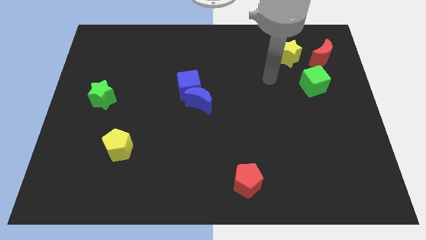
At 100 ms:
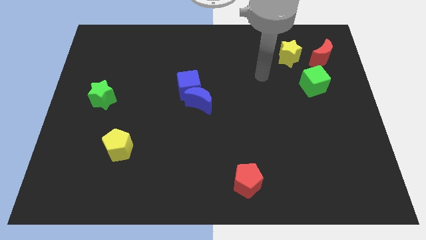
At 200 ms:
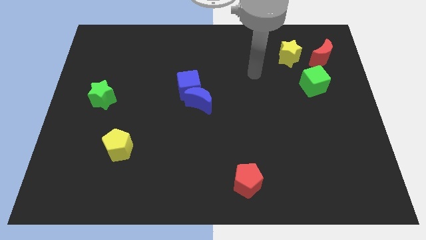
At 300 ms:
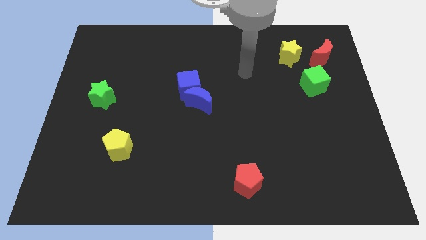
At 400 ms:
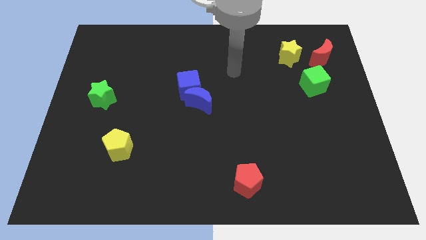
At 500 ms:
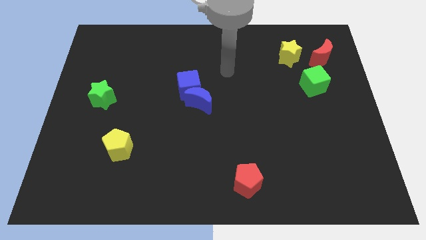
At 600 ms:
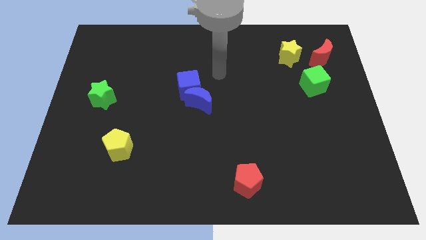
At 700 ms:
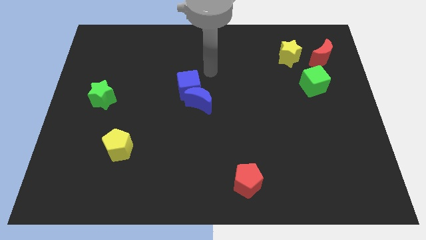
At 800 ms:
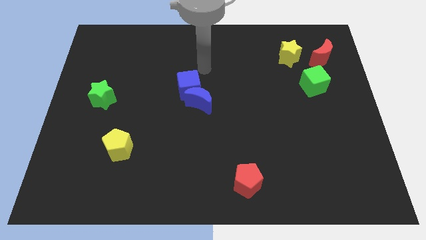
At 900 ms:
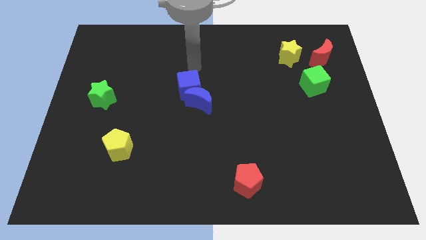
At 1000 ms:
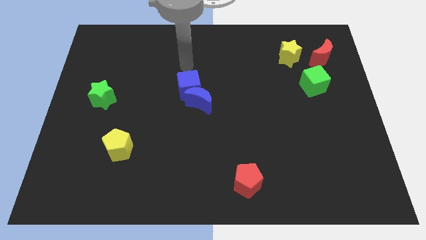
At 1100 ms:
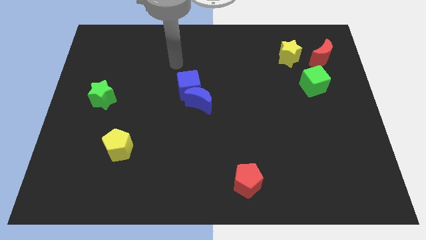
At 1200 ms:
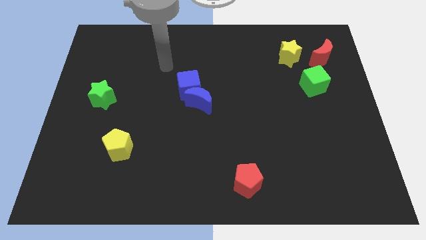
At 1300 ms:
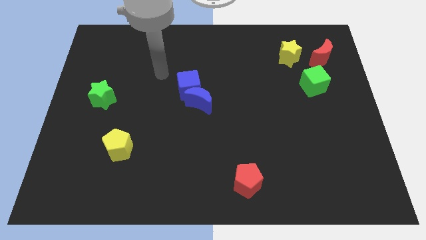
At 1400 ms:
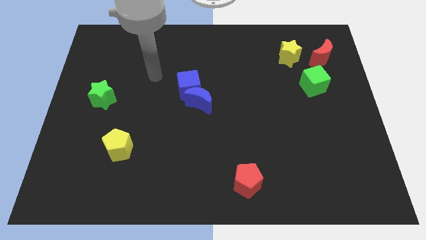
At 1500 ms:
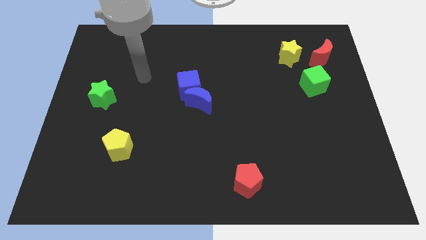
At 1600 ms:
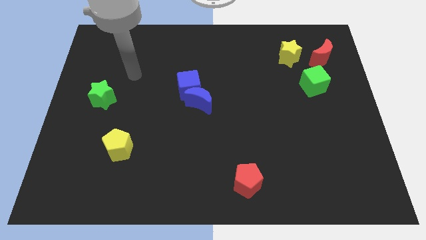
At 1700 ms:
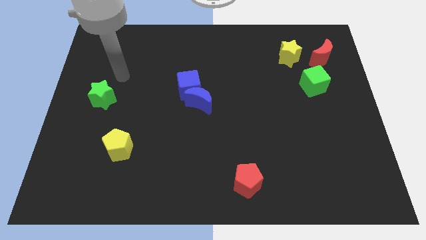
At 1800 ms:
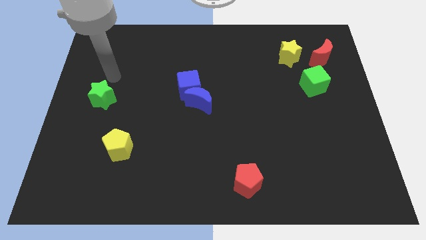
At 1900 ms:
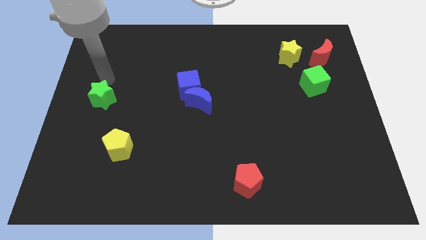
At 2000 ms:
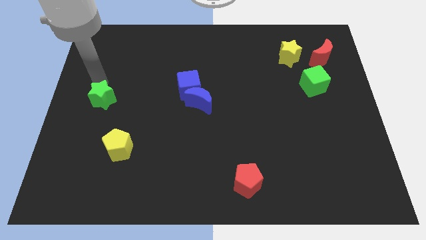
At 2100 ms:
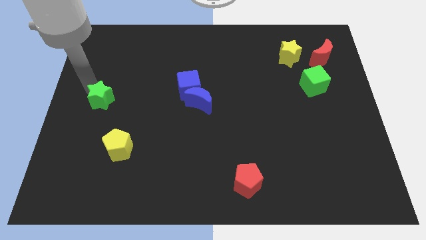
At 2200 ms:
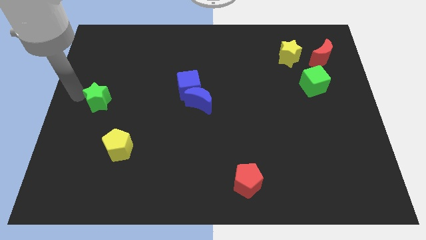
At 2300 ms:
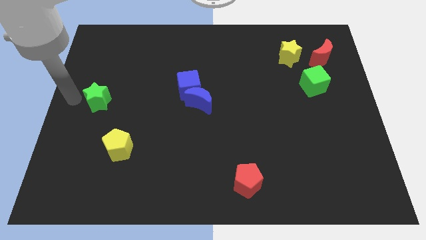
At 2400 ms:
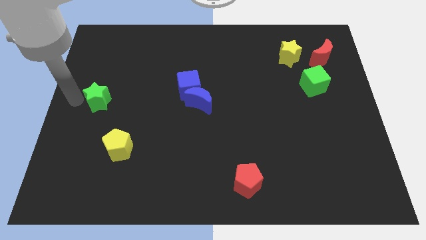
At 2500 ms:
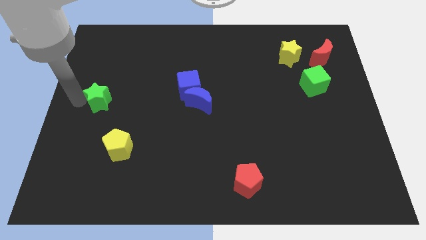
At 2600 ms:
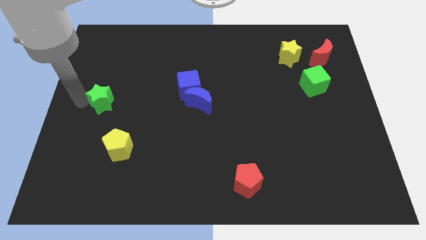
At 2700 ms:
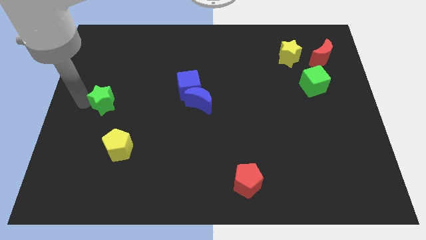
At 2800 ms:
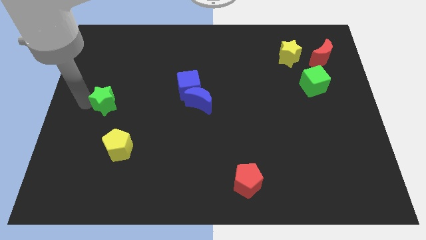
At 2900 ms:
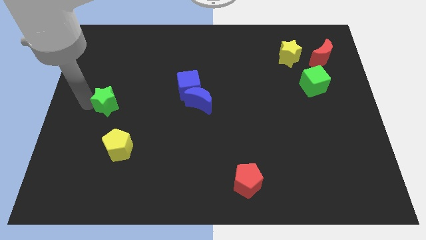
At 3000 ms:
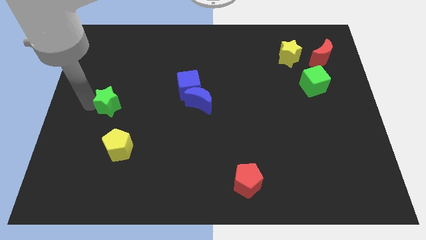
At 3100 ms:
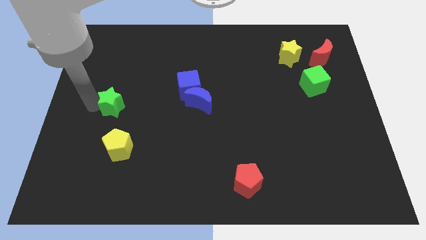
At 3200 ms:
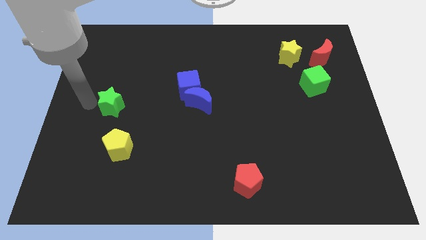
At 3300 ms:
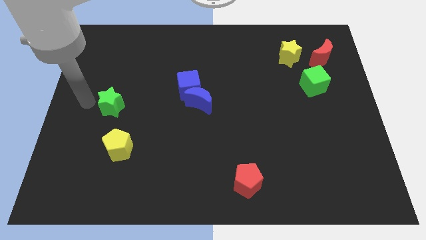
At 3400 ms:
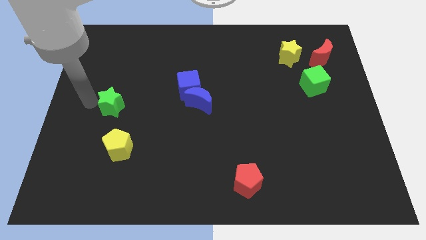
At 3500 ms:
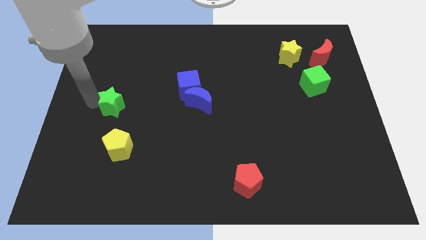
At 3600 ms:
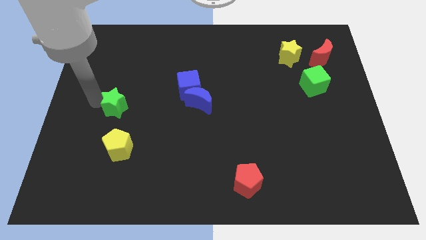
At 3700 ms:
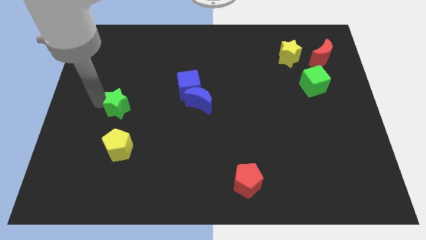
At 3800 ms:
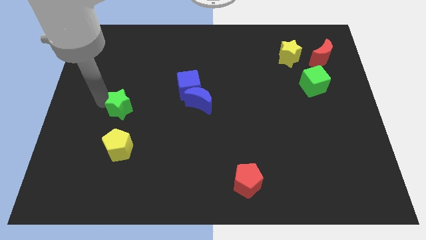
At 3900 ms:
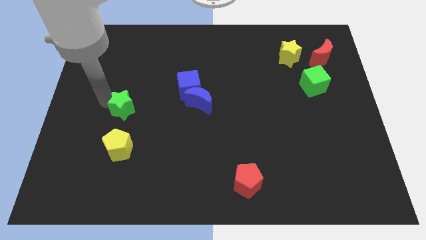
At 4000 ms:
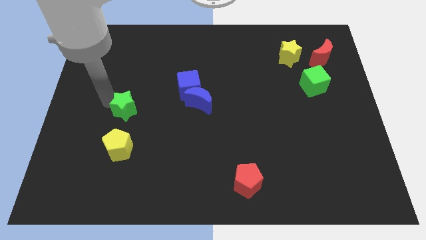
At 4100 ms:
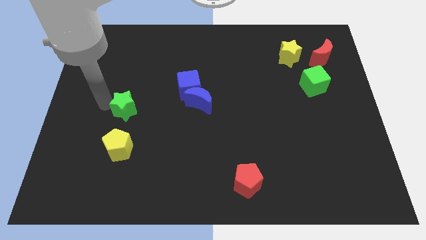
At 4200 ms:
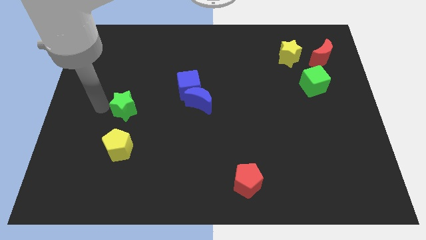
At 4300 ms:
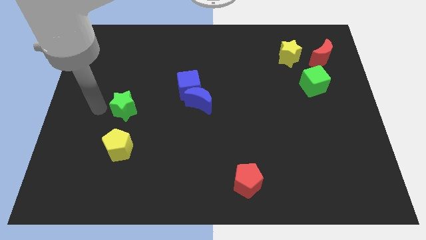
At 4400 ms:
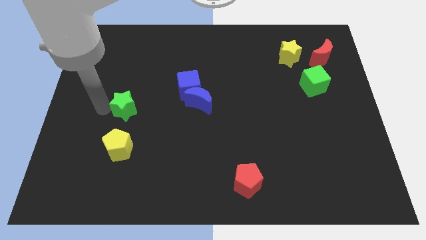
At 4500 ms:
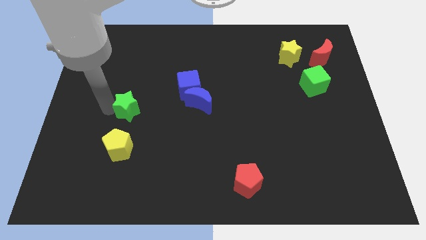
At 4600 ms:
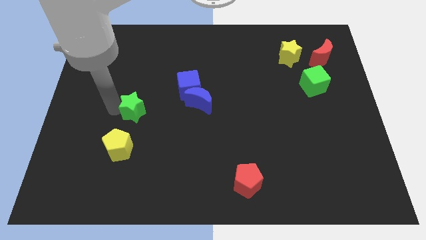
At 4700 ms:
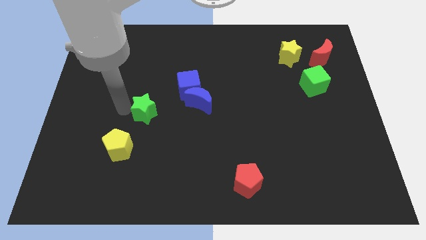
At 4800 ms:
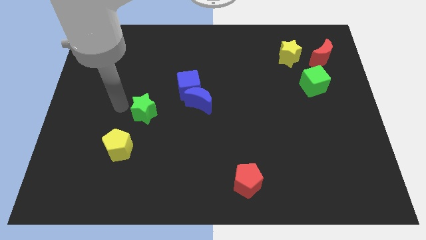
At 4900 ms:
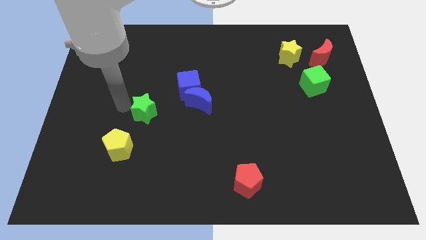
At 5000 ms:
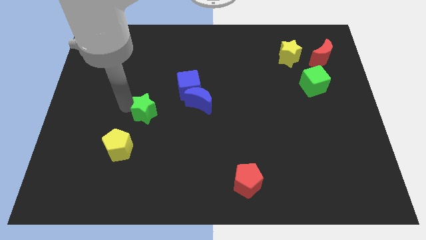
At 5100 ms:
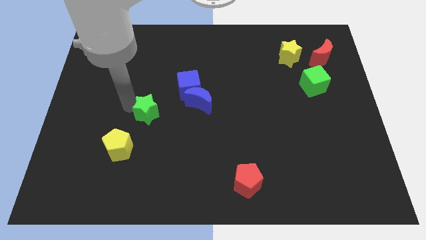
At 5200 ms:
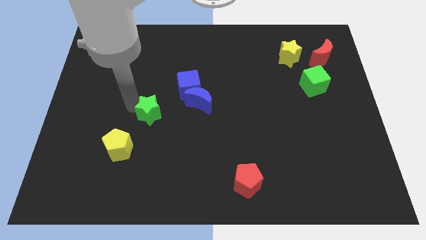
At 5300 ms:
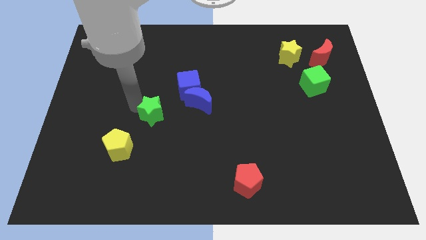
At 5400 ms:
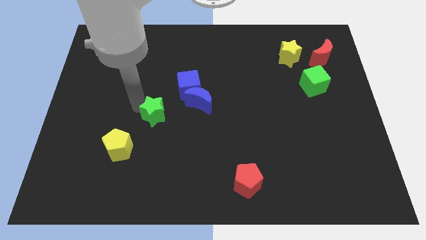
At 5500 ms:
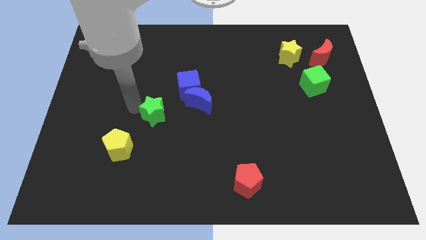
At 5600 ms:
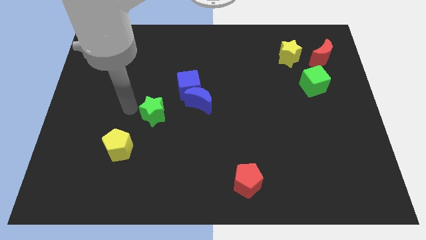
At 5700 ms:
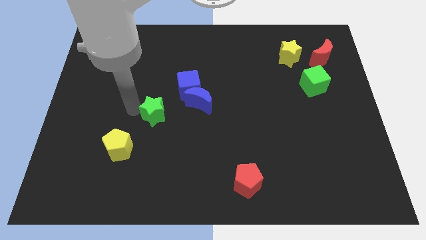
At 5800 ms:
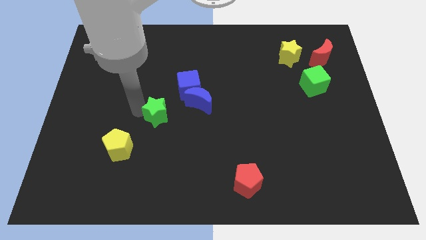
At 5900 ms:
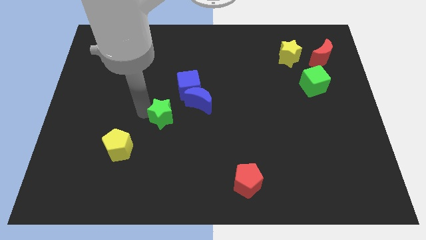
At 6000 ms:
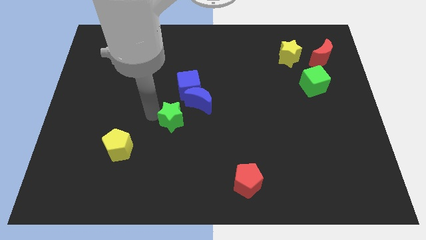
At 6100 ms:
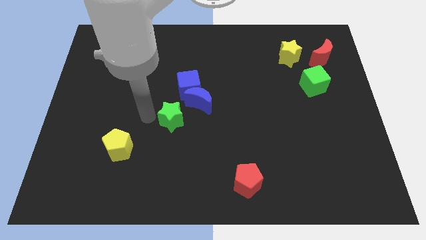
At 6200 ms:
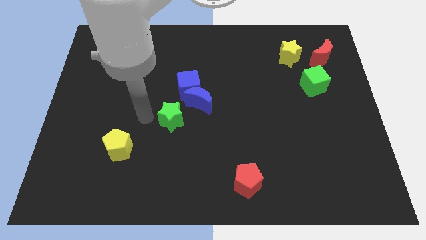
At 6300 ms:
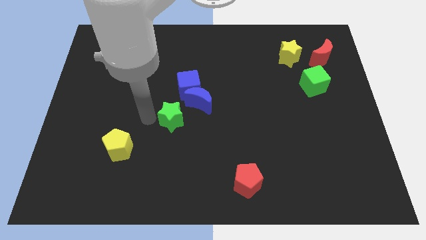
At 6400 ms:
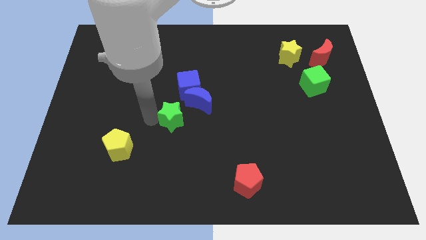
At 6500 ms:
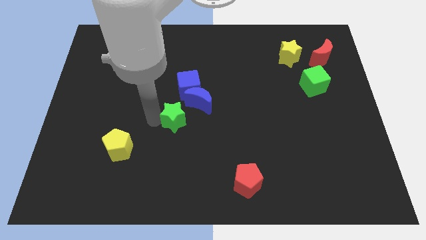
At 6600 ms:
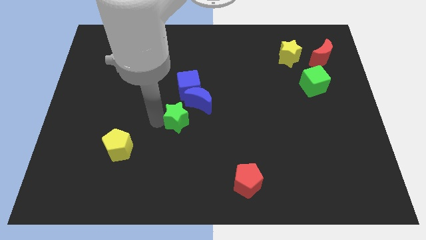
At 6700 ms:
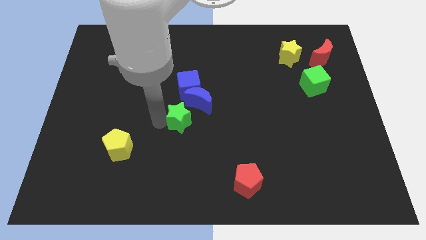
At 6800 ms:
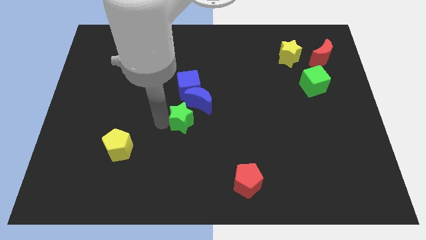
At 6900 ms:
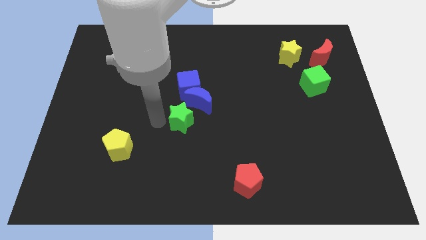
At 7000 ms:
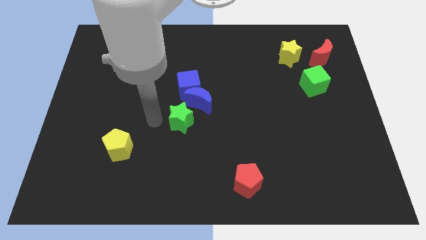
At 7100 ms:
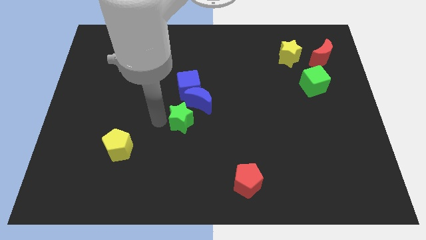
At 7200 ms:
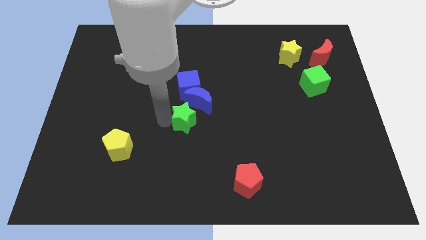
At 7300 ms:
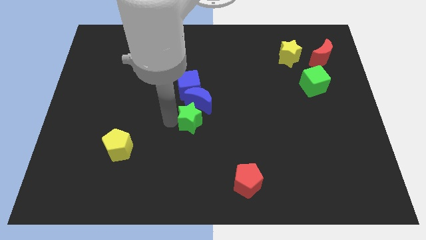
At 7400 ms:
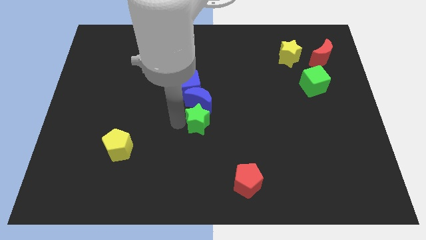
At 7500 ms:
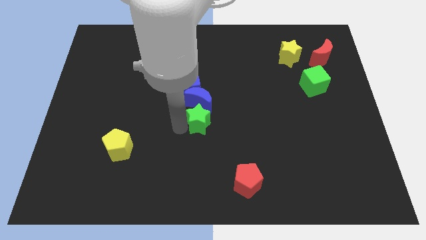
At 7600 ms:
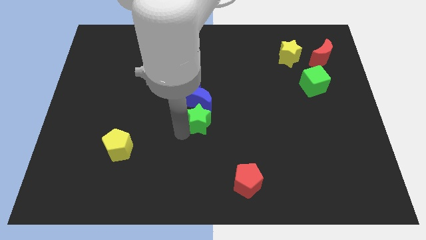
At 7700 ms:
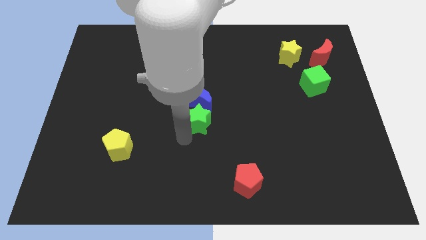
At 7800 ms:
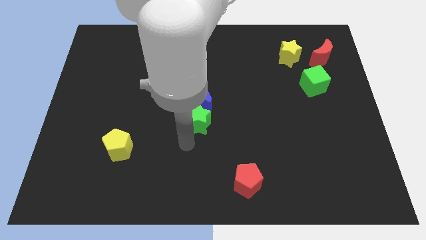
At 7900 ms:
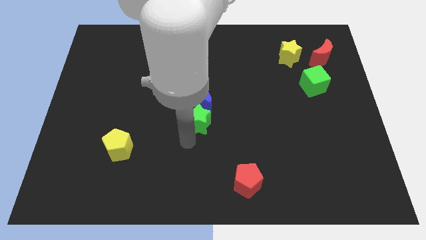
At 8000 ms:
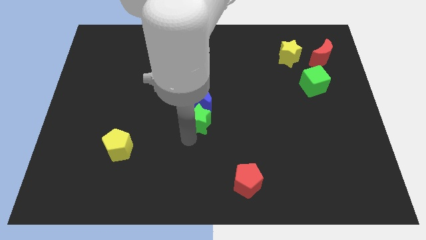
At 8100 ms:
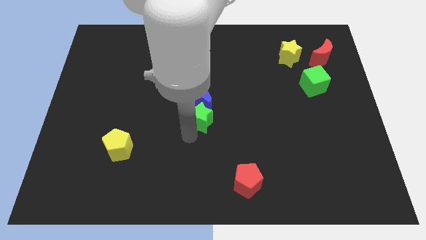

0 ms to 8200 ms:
put the green star to the bottom right of the blue cube
